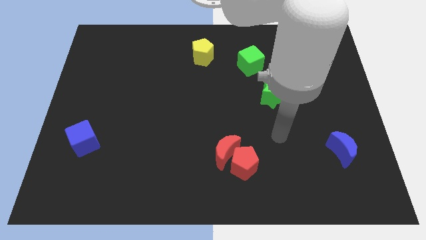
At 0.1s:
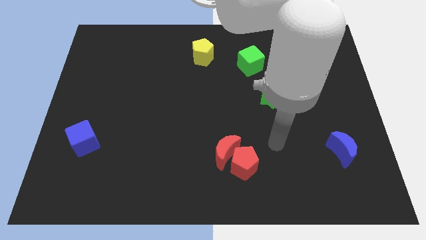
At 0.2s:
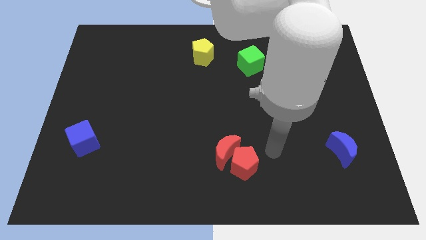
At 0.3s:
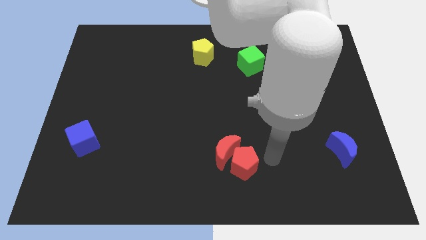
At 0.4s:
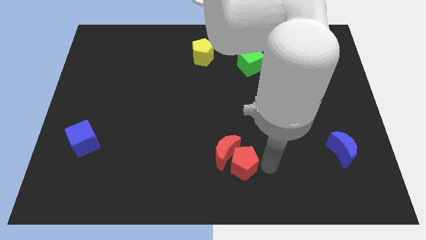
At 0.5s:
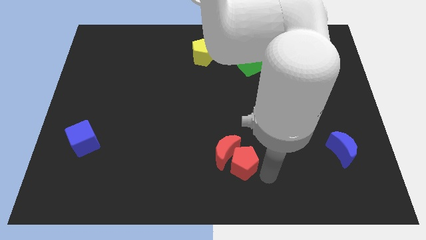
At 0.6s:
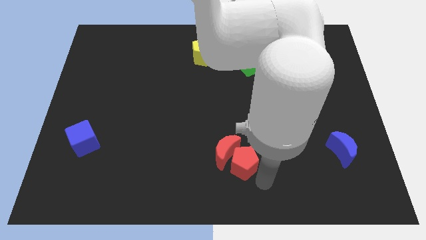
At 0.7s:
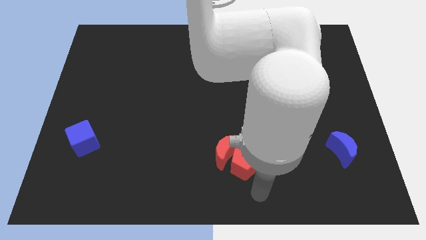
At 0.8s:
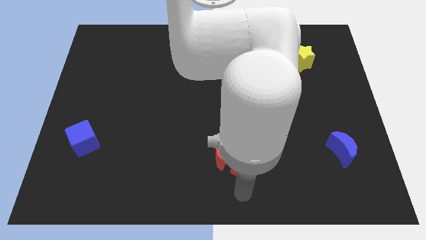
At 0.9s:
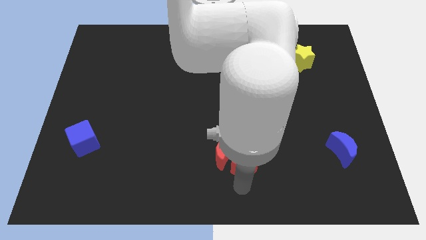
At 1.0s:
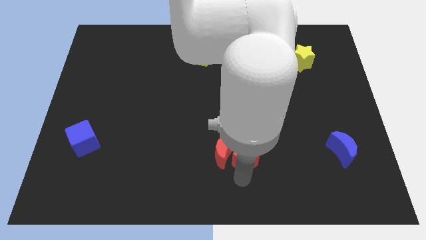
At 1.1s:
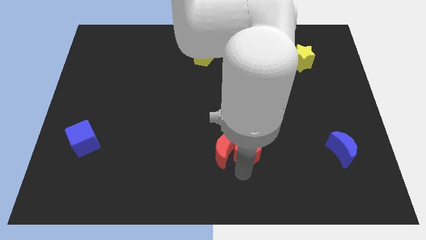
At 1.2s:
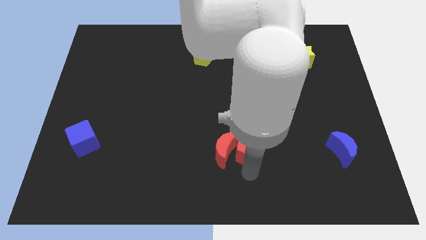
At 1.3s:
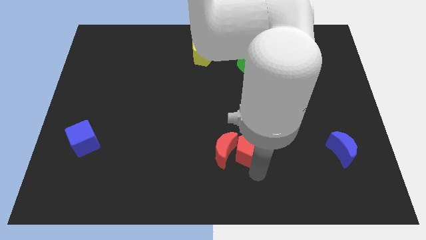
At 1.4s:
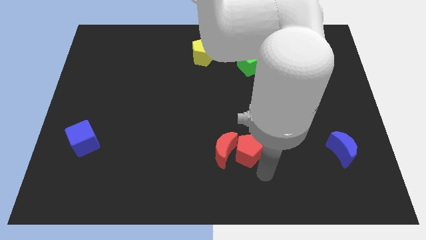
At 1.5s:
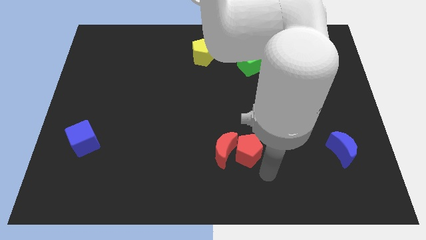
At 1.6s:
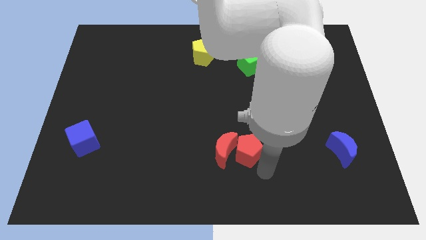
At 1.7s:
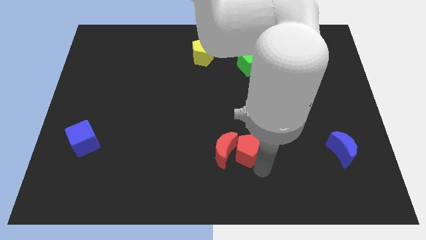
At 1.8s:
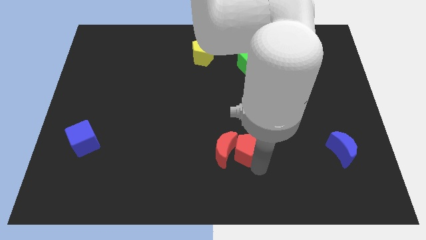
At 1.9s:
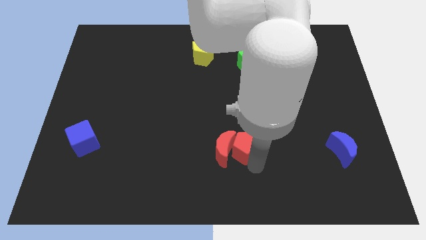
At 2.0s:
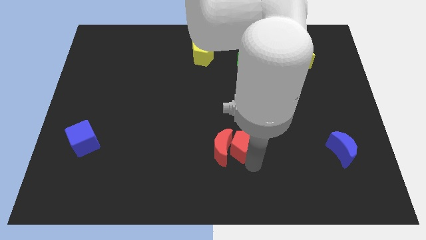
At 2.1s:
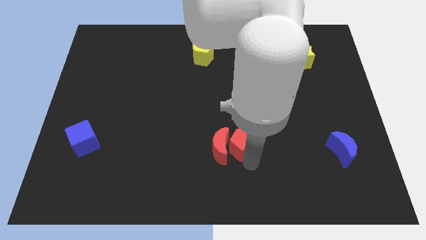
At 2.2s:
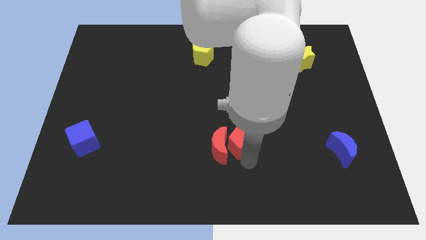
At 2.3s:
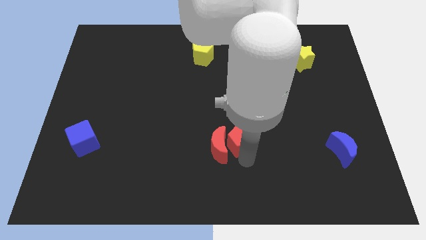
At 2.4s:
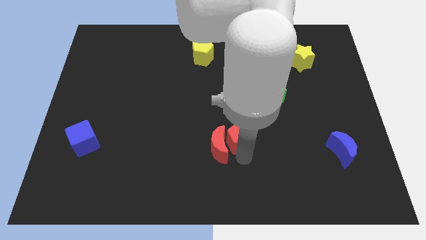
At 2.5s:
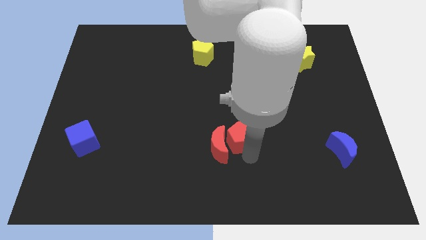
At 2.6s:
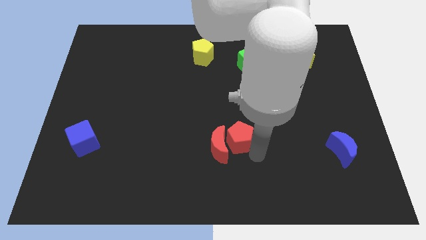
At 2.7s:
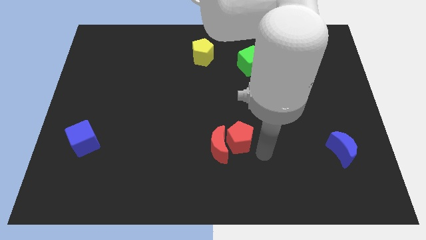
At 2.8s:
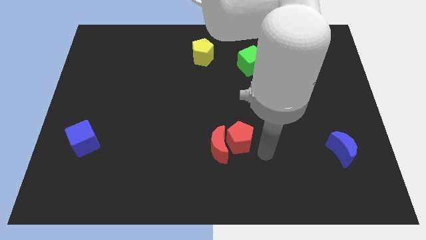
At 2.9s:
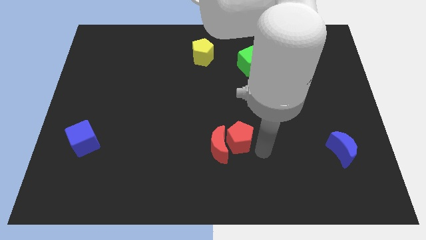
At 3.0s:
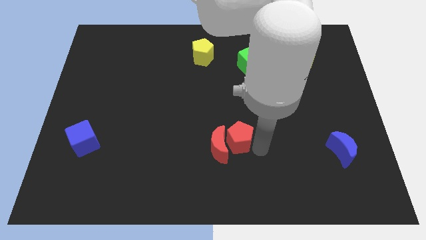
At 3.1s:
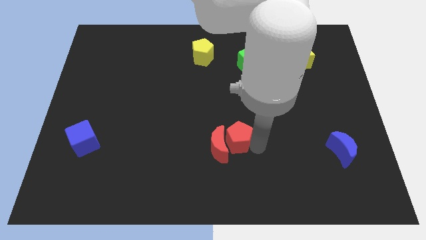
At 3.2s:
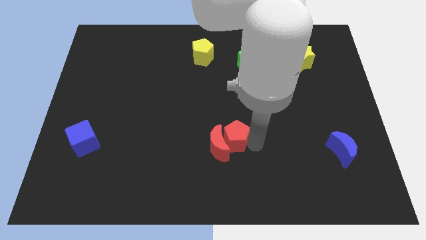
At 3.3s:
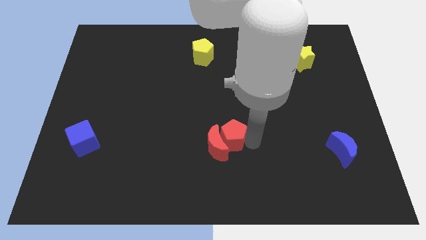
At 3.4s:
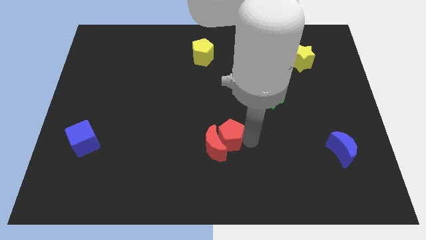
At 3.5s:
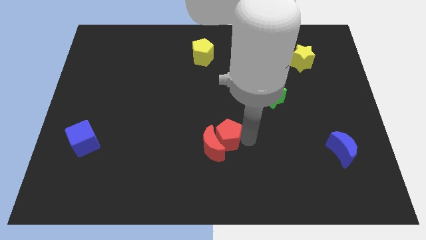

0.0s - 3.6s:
slide the red pentagon a bit up and to the left

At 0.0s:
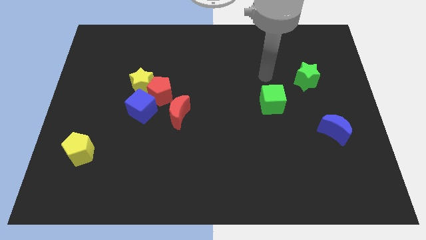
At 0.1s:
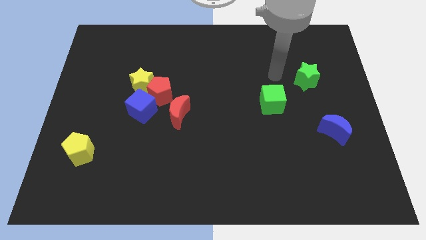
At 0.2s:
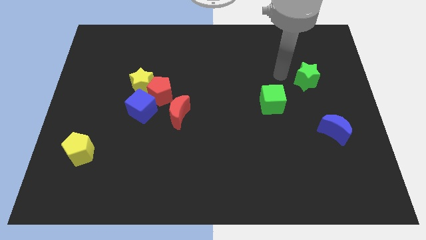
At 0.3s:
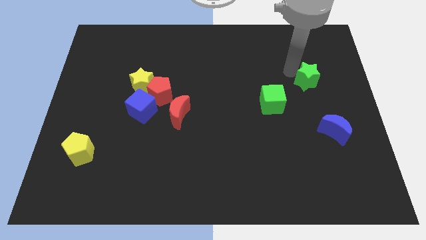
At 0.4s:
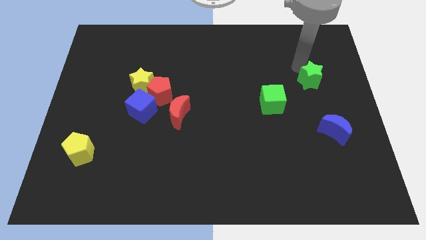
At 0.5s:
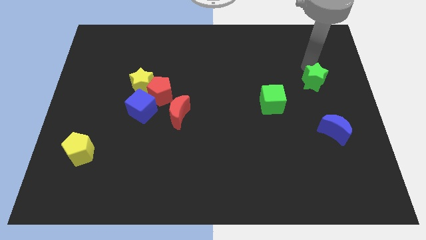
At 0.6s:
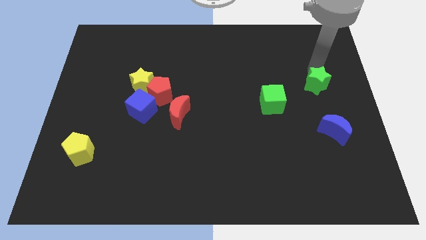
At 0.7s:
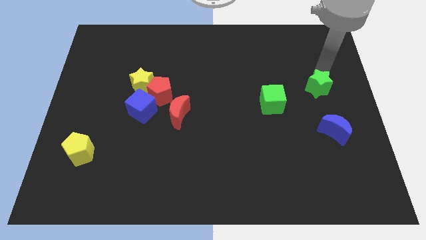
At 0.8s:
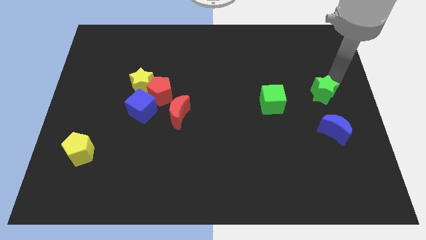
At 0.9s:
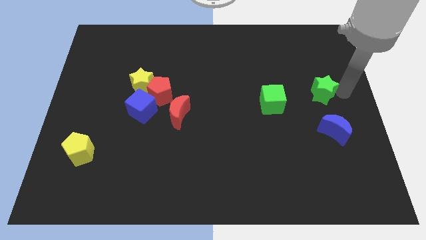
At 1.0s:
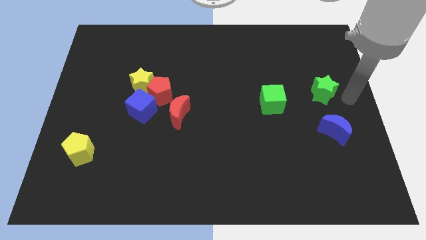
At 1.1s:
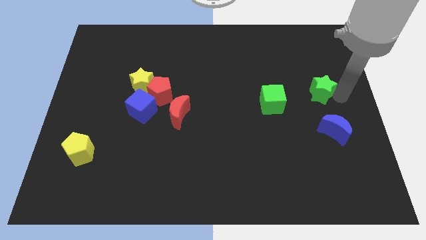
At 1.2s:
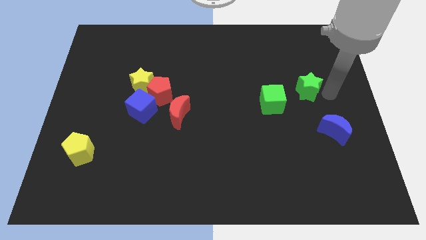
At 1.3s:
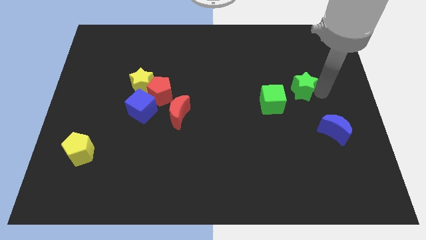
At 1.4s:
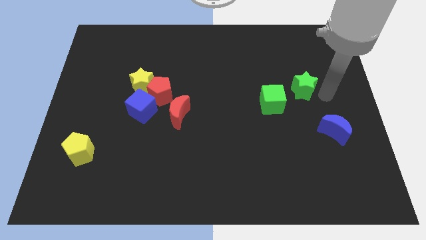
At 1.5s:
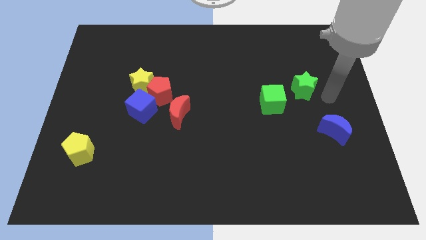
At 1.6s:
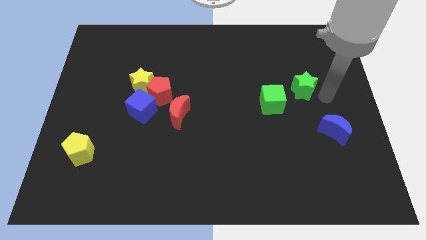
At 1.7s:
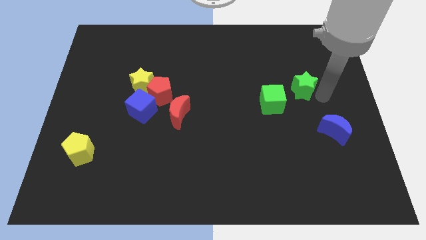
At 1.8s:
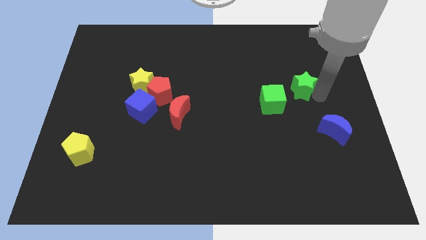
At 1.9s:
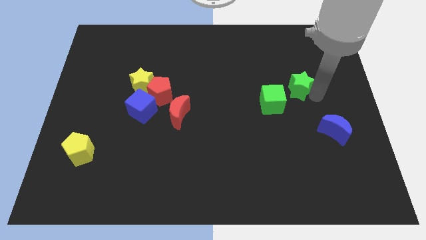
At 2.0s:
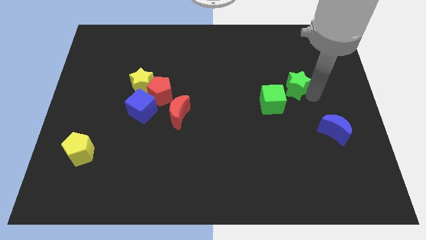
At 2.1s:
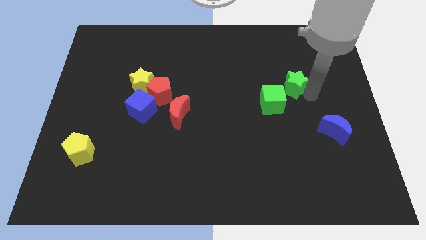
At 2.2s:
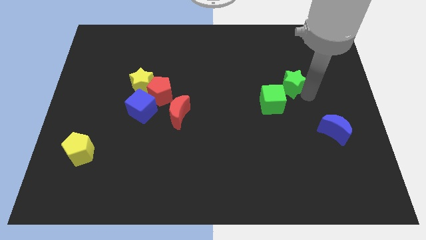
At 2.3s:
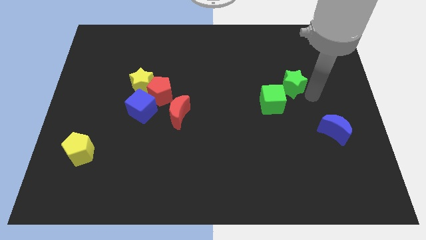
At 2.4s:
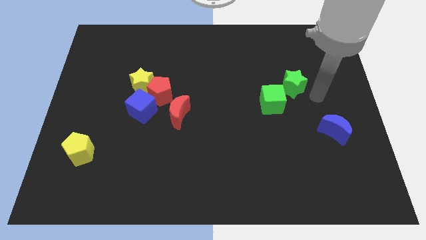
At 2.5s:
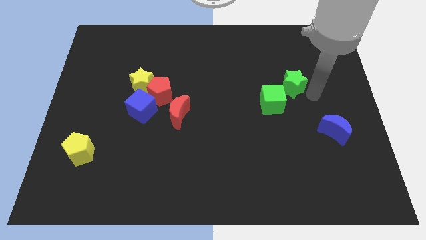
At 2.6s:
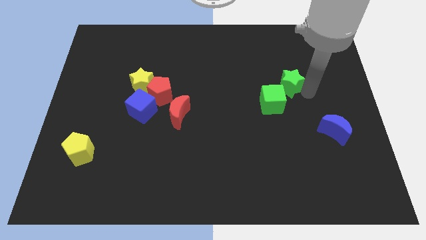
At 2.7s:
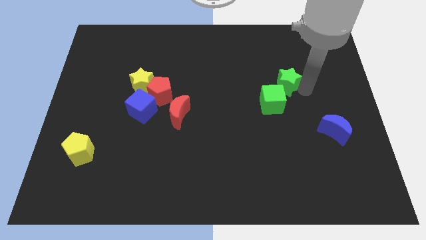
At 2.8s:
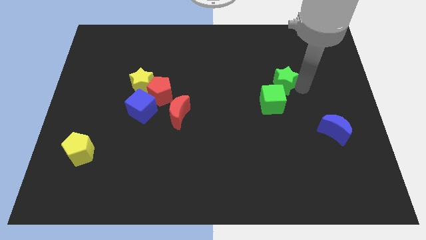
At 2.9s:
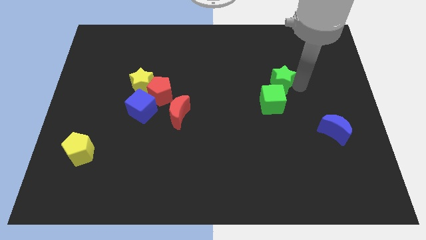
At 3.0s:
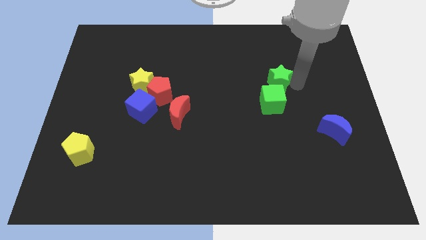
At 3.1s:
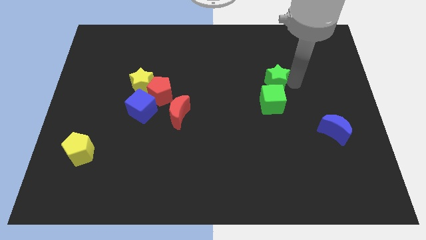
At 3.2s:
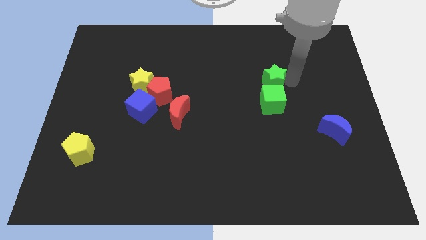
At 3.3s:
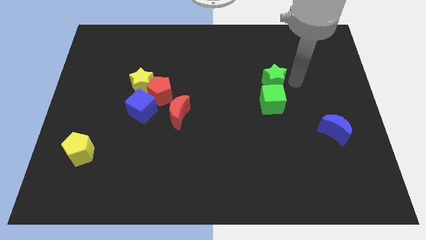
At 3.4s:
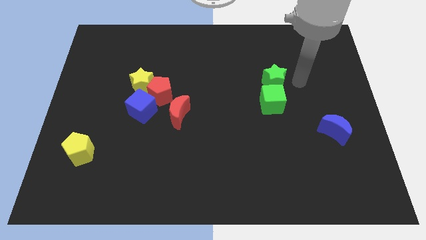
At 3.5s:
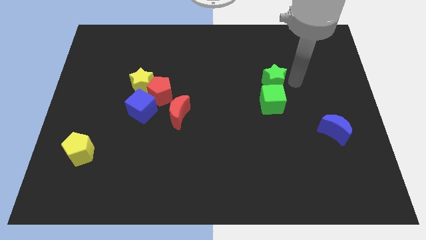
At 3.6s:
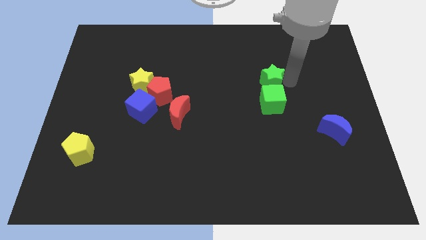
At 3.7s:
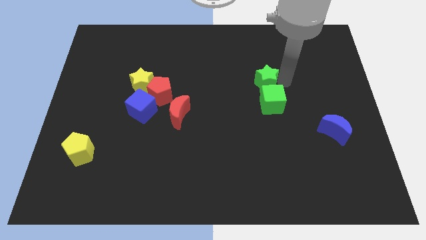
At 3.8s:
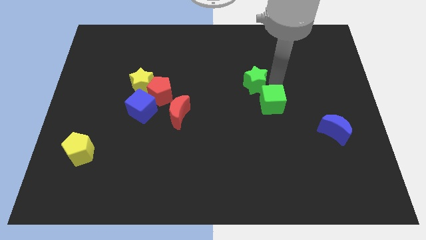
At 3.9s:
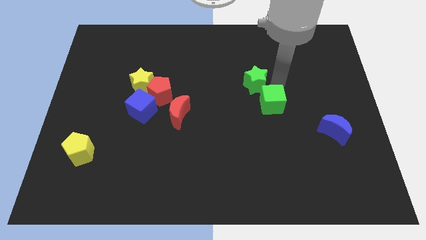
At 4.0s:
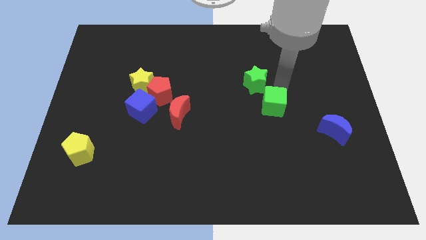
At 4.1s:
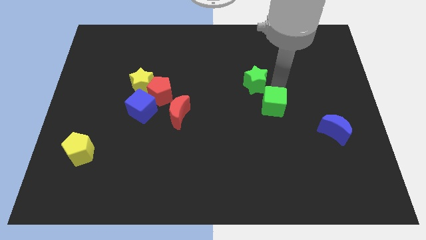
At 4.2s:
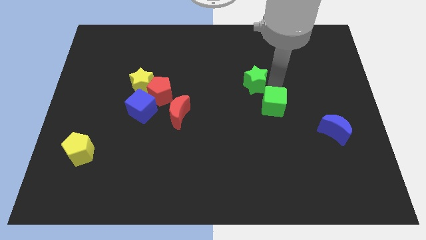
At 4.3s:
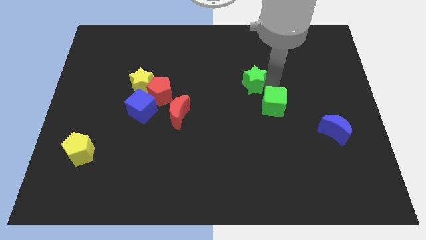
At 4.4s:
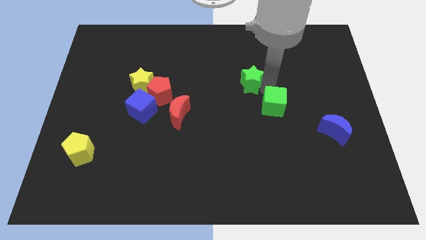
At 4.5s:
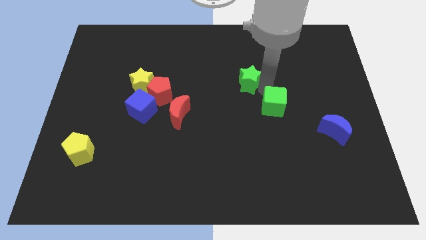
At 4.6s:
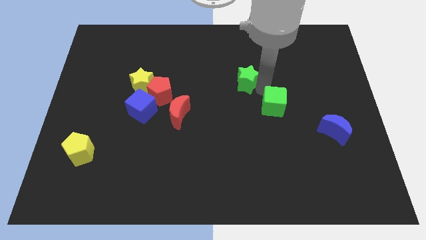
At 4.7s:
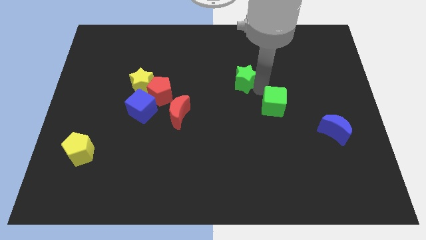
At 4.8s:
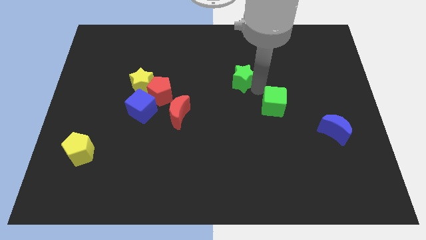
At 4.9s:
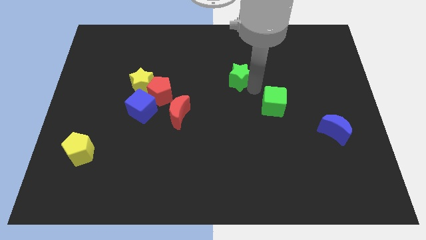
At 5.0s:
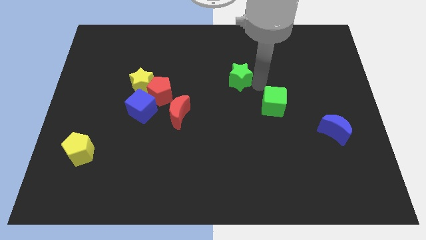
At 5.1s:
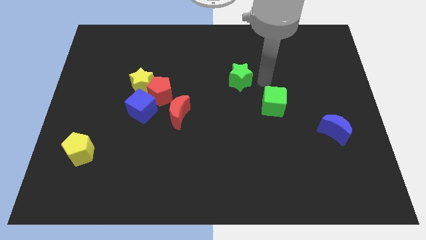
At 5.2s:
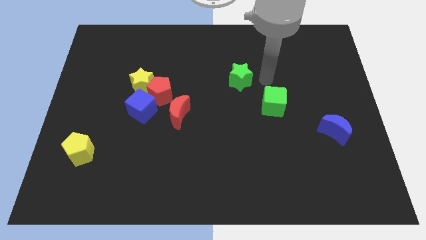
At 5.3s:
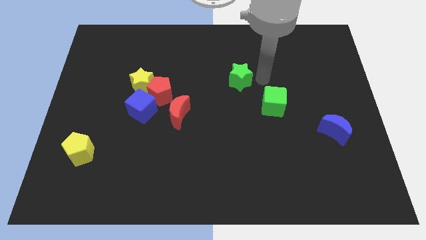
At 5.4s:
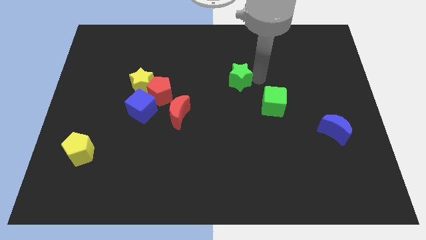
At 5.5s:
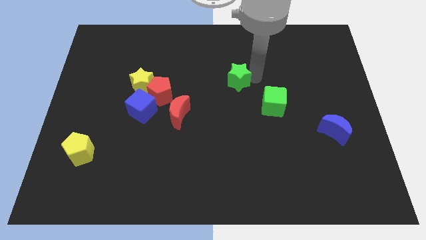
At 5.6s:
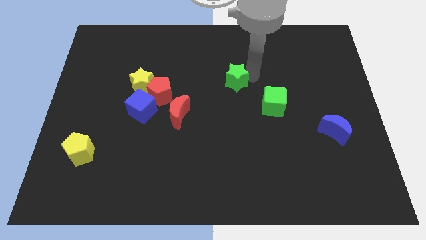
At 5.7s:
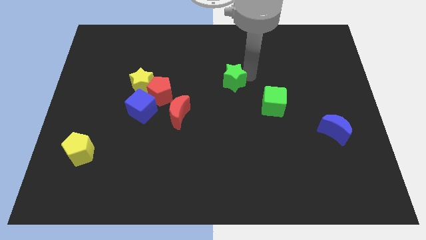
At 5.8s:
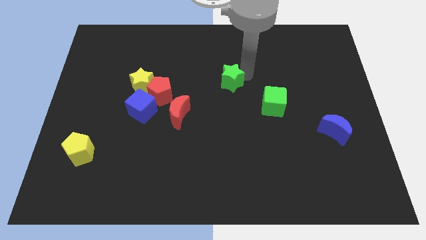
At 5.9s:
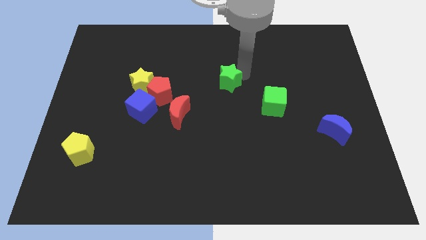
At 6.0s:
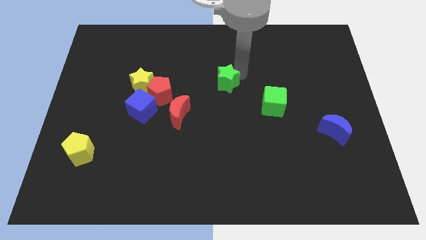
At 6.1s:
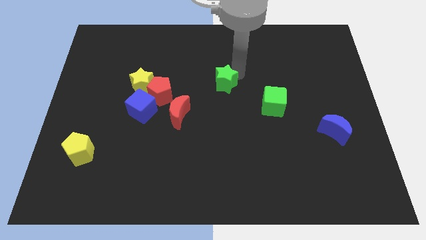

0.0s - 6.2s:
move the green star left
